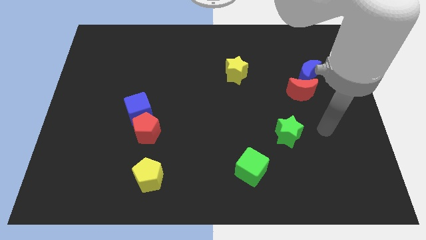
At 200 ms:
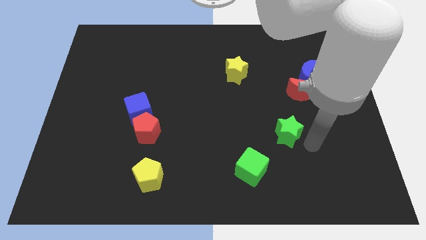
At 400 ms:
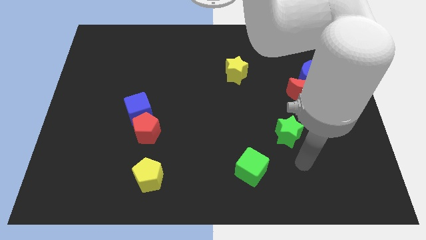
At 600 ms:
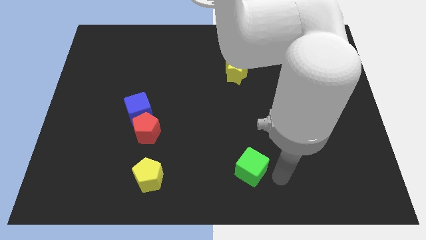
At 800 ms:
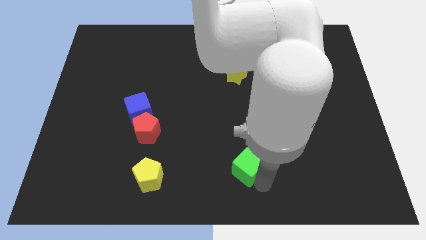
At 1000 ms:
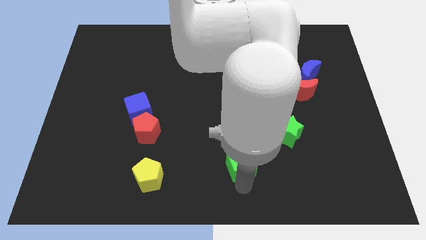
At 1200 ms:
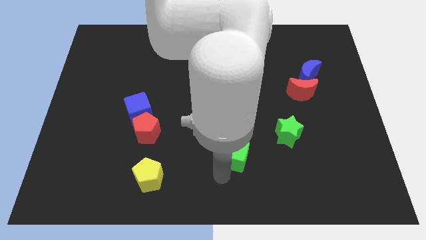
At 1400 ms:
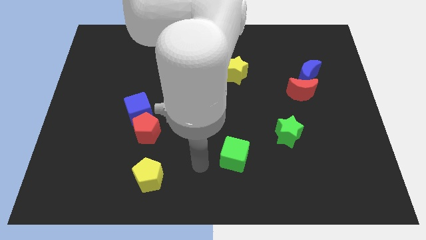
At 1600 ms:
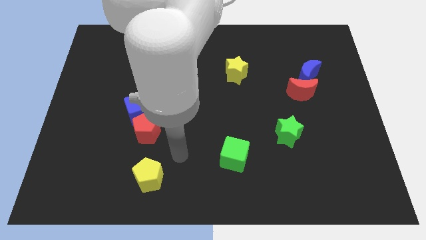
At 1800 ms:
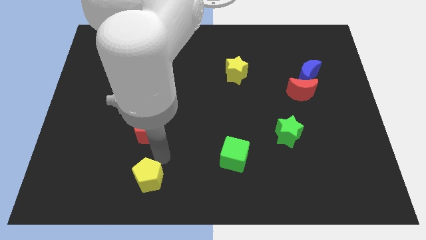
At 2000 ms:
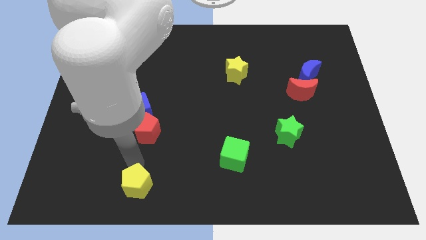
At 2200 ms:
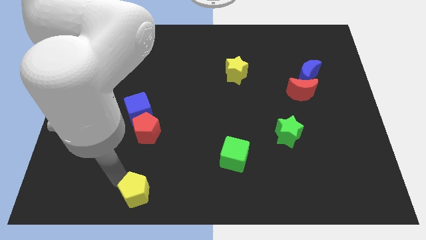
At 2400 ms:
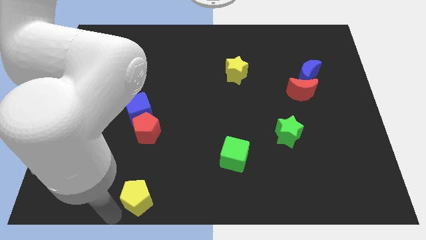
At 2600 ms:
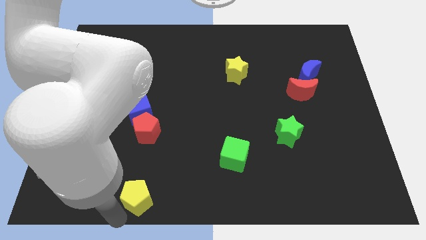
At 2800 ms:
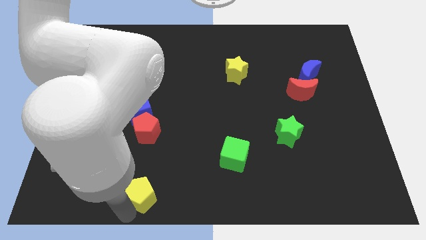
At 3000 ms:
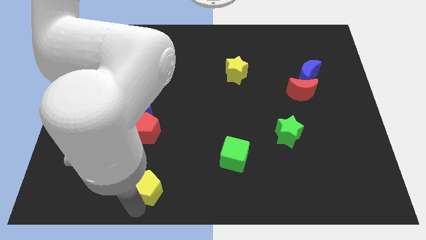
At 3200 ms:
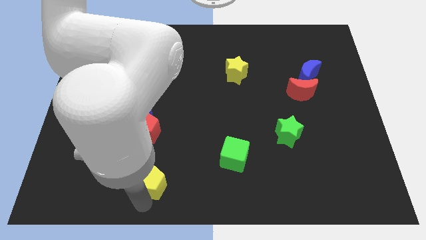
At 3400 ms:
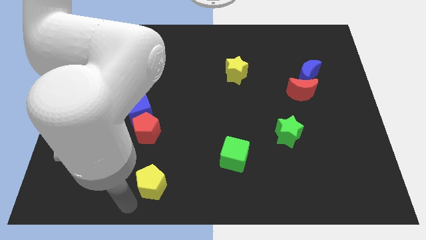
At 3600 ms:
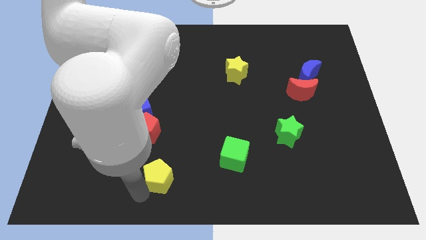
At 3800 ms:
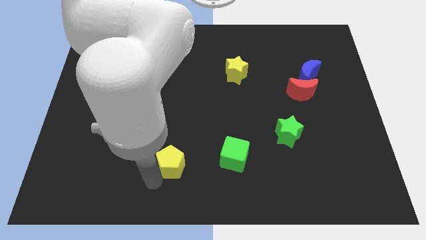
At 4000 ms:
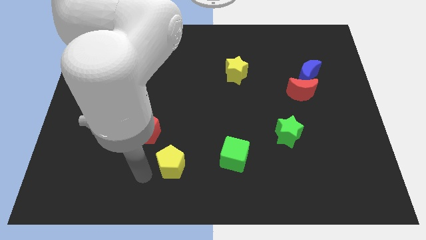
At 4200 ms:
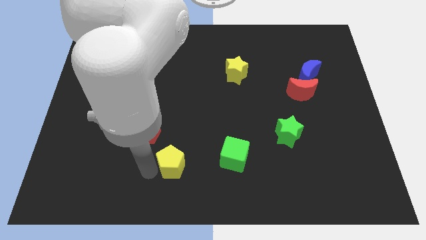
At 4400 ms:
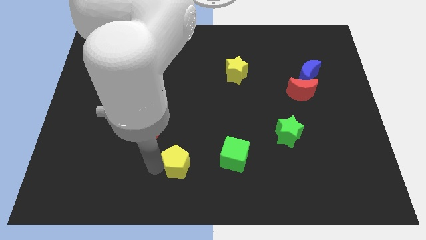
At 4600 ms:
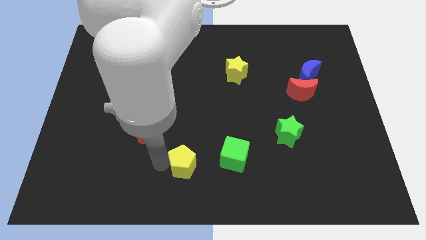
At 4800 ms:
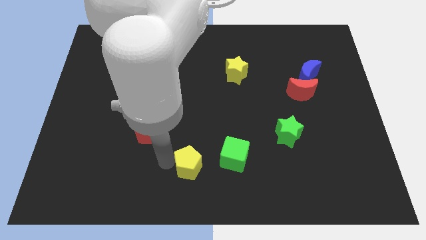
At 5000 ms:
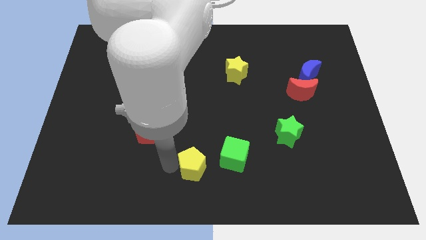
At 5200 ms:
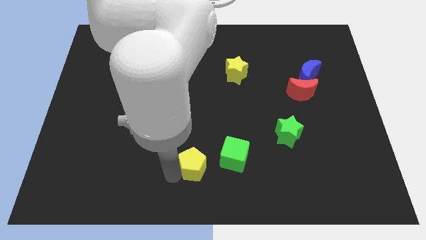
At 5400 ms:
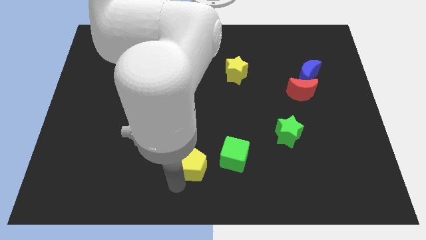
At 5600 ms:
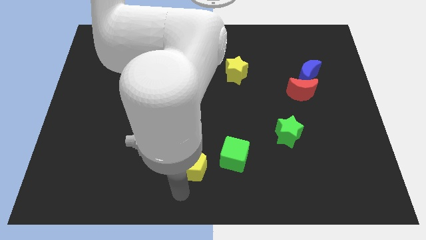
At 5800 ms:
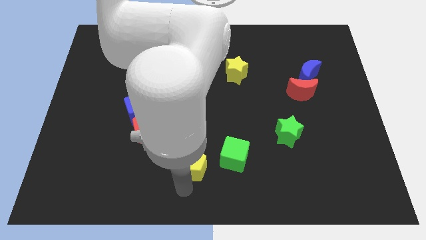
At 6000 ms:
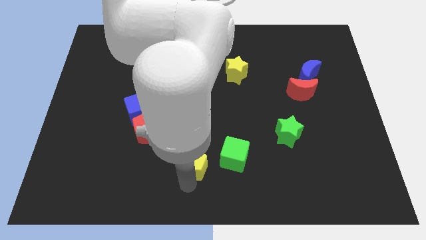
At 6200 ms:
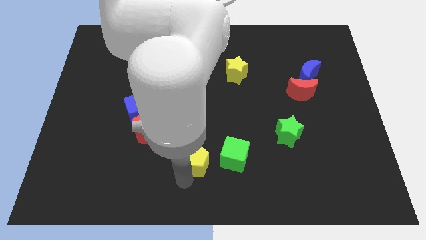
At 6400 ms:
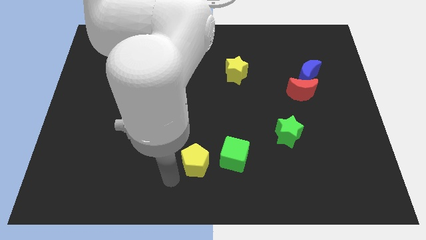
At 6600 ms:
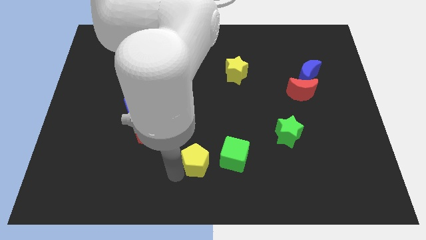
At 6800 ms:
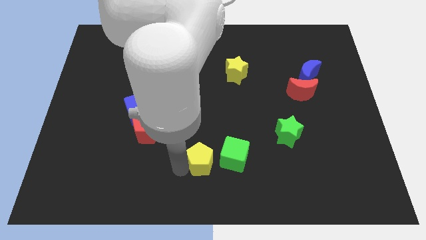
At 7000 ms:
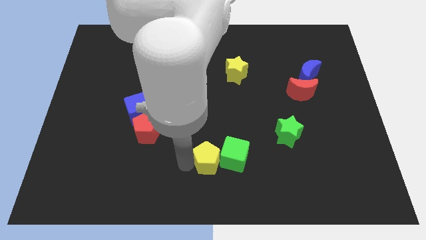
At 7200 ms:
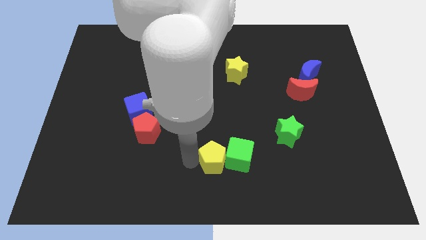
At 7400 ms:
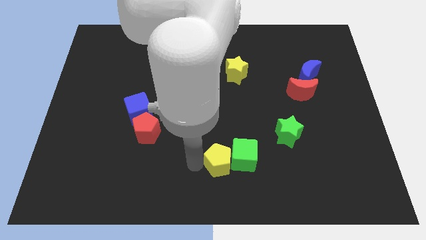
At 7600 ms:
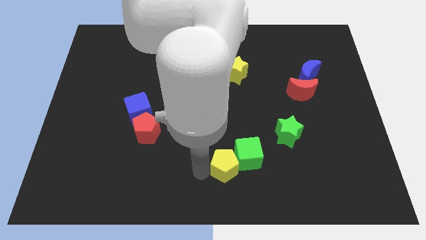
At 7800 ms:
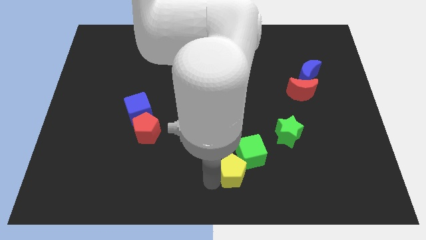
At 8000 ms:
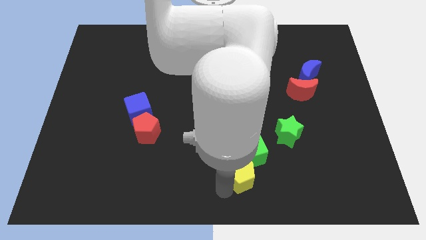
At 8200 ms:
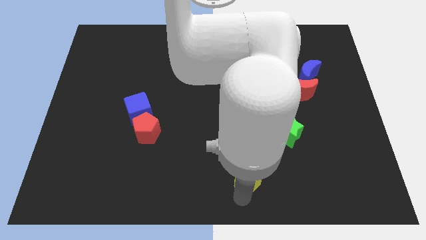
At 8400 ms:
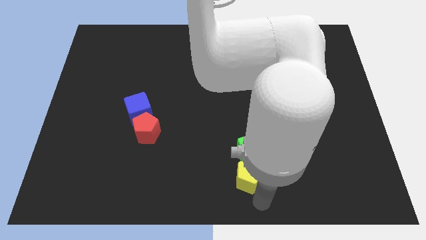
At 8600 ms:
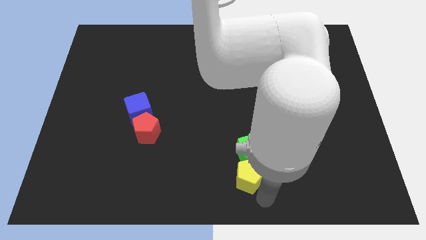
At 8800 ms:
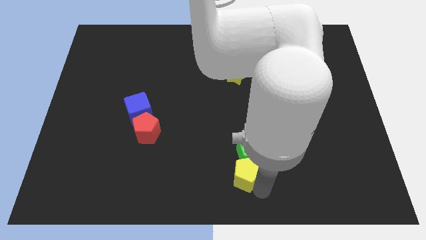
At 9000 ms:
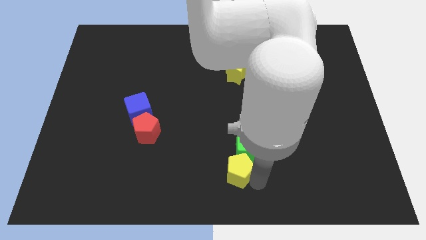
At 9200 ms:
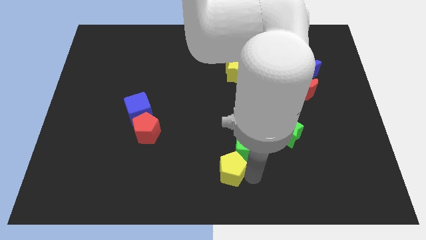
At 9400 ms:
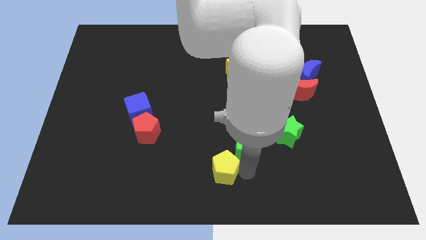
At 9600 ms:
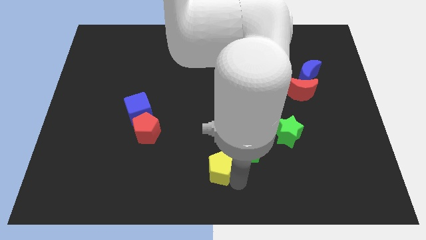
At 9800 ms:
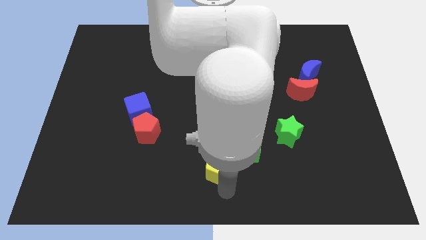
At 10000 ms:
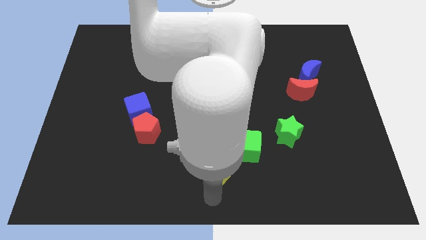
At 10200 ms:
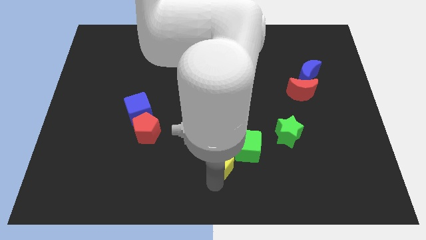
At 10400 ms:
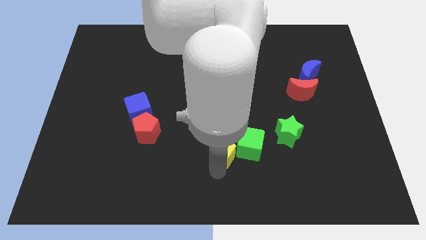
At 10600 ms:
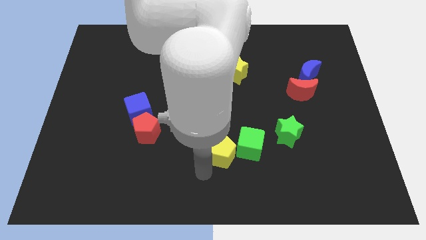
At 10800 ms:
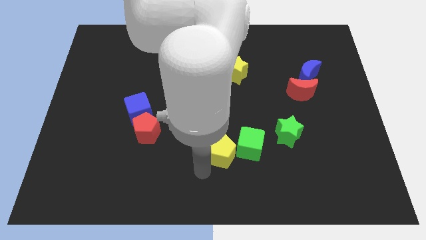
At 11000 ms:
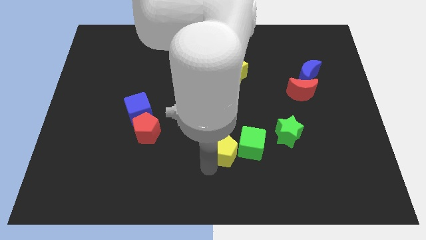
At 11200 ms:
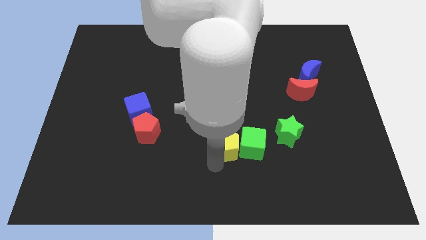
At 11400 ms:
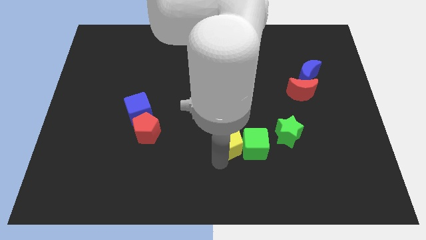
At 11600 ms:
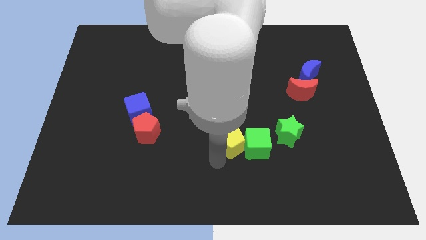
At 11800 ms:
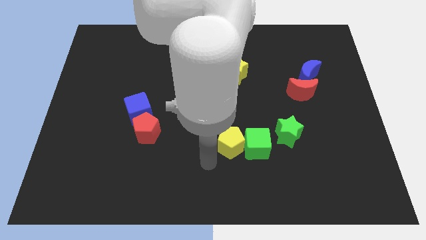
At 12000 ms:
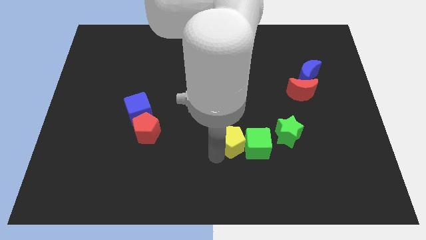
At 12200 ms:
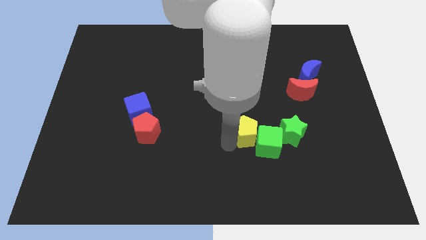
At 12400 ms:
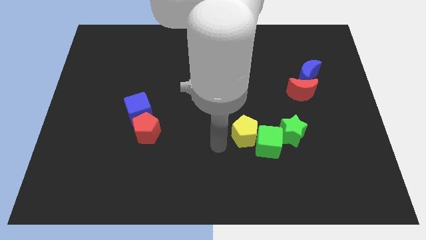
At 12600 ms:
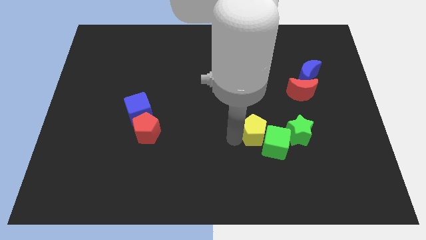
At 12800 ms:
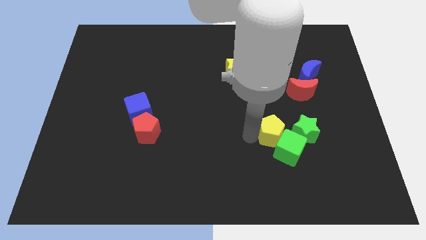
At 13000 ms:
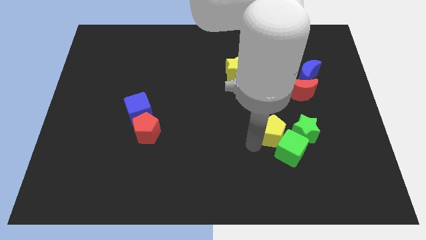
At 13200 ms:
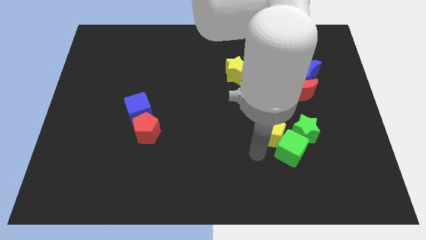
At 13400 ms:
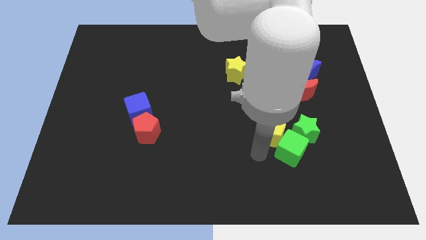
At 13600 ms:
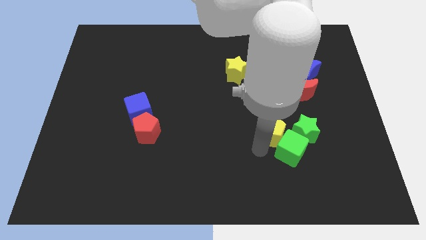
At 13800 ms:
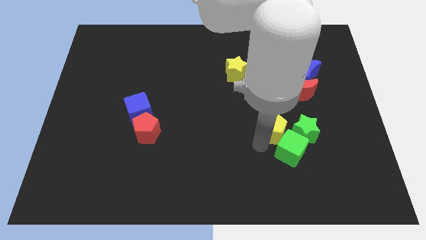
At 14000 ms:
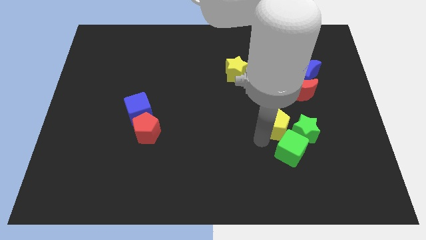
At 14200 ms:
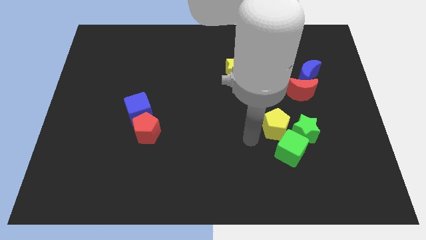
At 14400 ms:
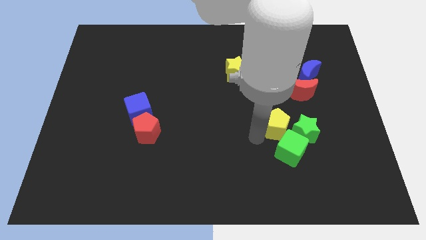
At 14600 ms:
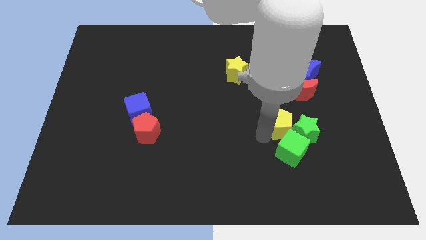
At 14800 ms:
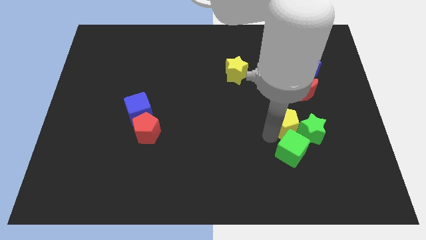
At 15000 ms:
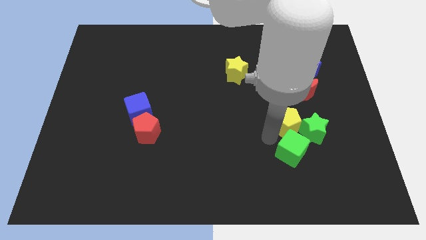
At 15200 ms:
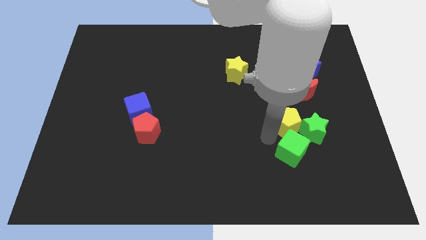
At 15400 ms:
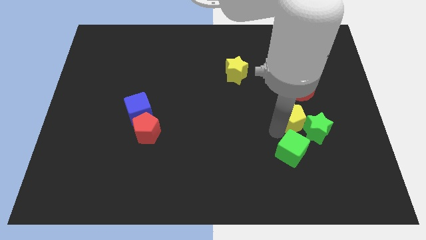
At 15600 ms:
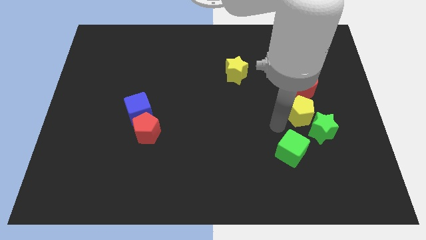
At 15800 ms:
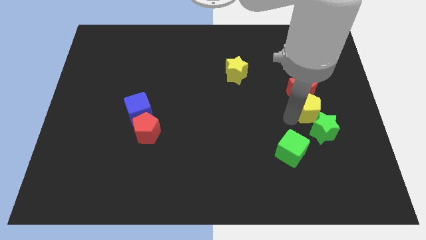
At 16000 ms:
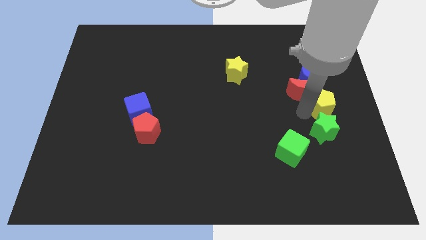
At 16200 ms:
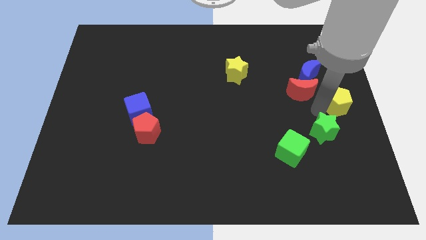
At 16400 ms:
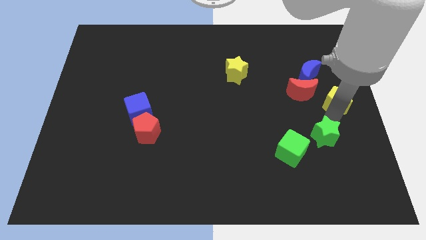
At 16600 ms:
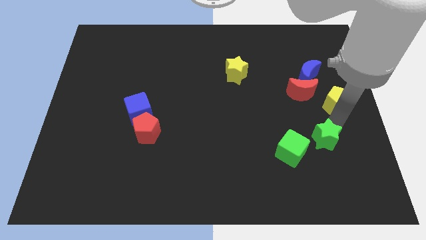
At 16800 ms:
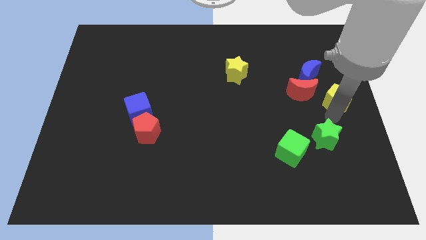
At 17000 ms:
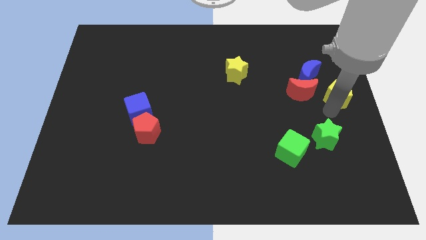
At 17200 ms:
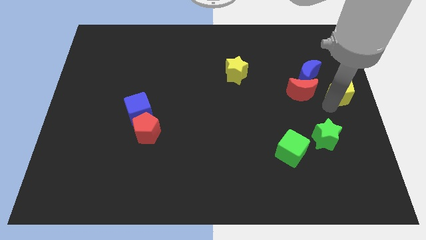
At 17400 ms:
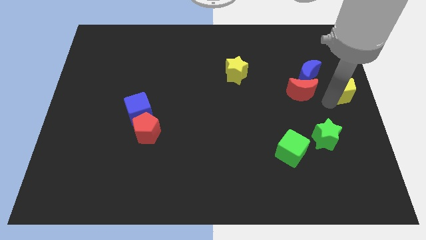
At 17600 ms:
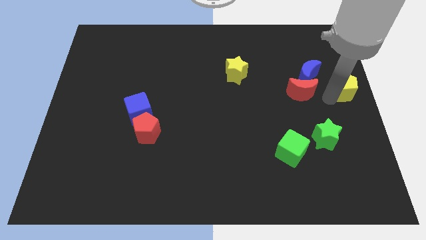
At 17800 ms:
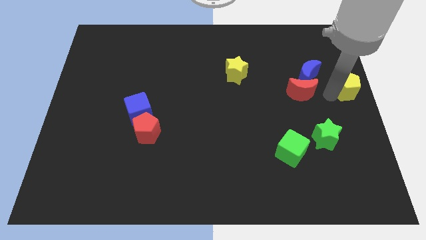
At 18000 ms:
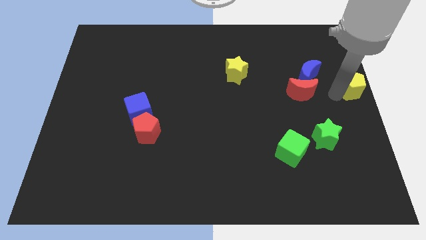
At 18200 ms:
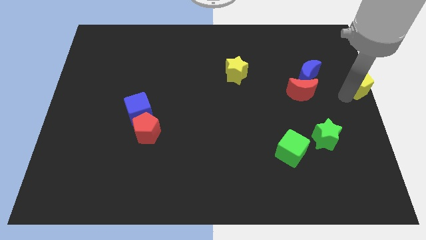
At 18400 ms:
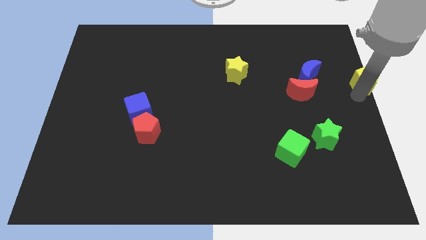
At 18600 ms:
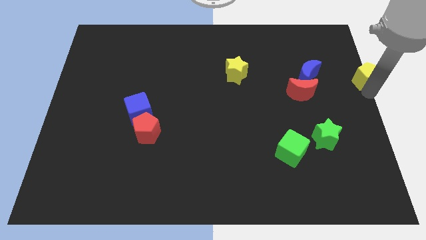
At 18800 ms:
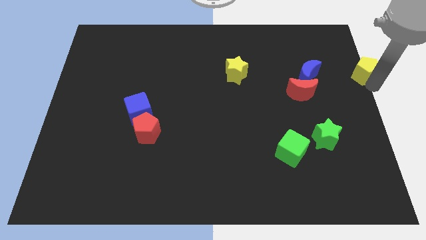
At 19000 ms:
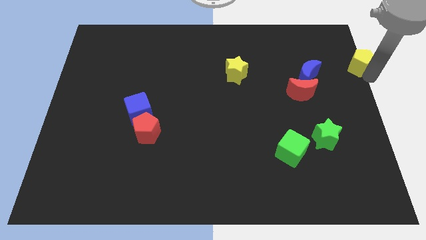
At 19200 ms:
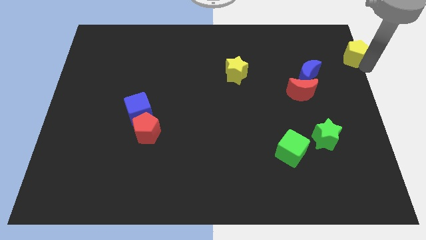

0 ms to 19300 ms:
put the yellow pentagon to the top right corner
